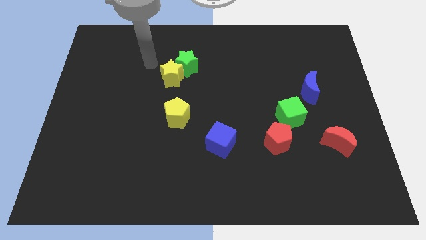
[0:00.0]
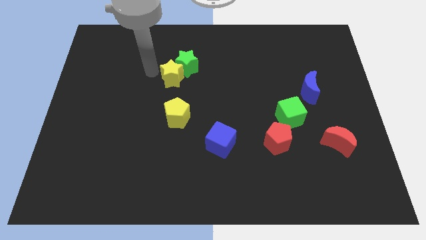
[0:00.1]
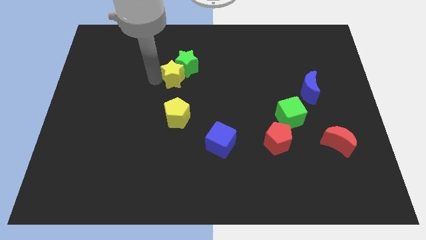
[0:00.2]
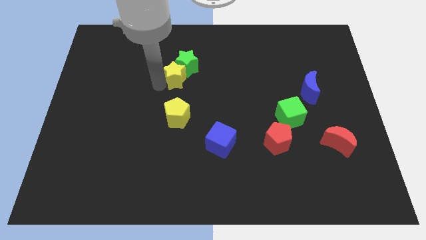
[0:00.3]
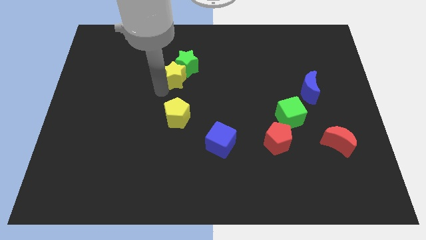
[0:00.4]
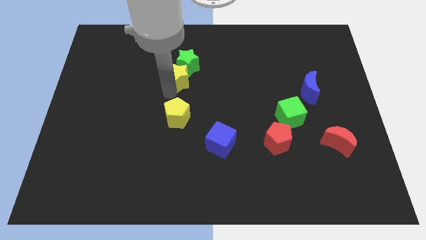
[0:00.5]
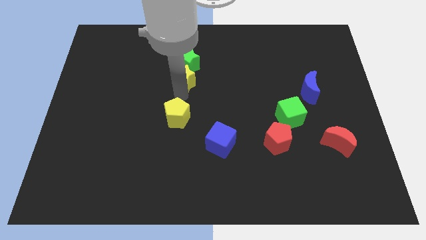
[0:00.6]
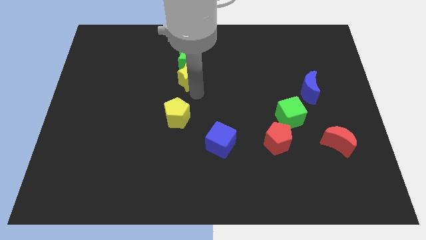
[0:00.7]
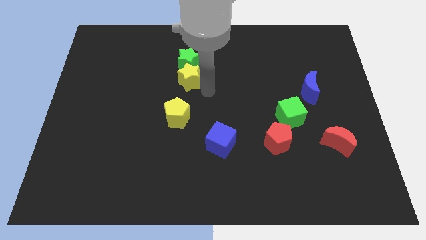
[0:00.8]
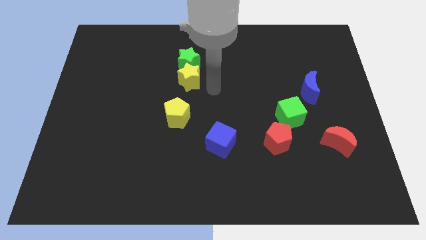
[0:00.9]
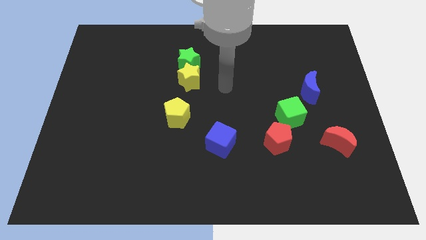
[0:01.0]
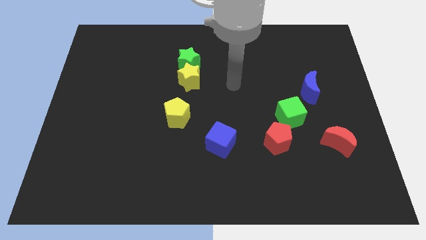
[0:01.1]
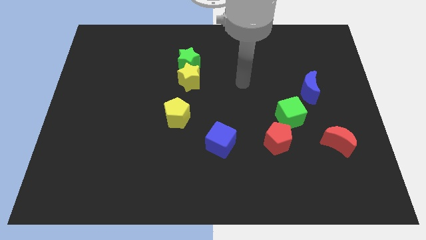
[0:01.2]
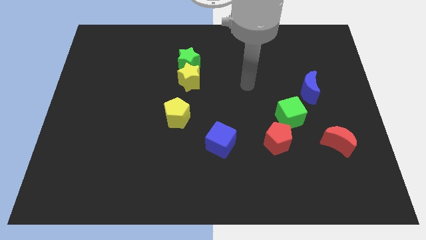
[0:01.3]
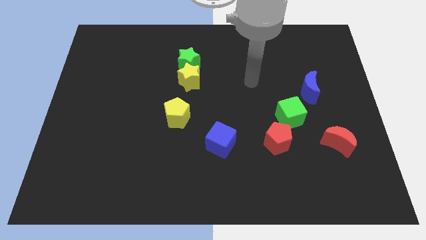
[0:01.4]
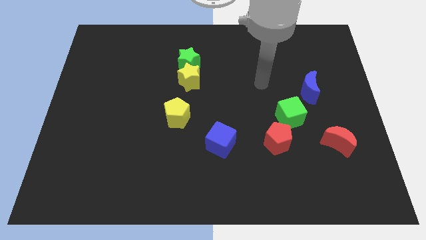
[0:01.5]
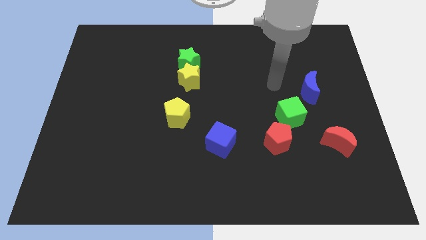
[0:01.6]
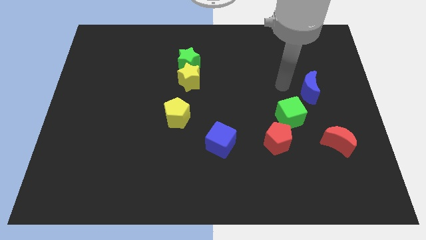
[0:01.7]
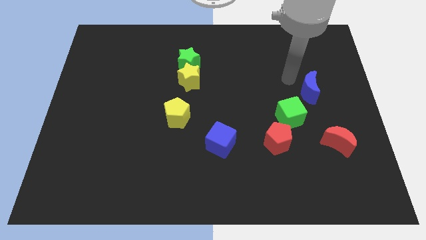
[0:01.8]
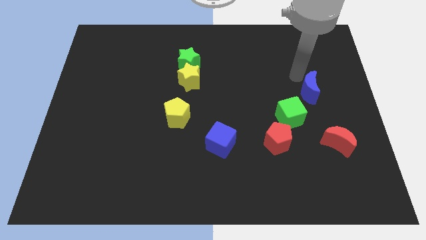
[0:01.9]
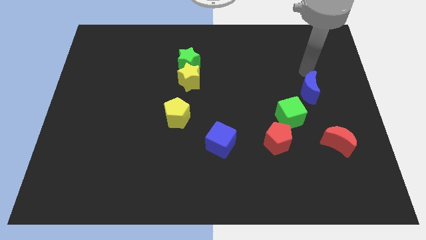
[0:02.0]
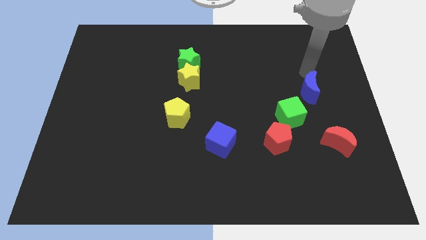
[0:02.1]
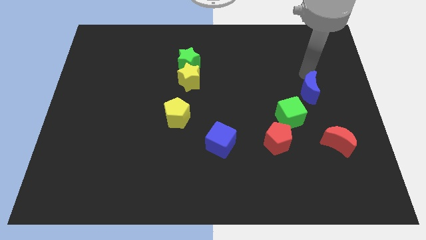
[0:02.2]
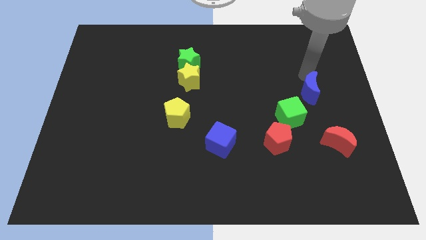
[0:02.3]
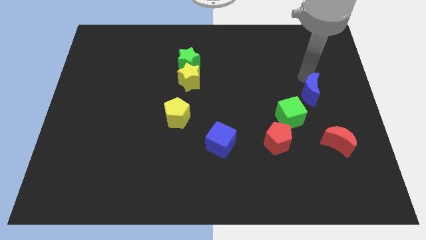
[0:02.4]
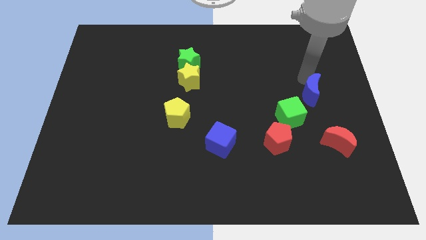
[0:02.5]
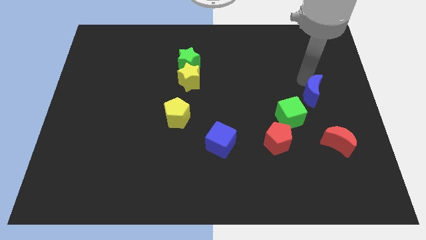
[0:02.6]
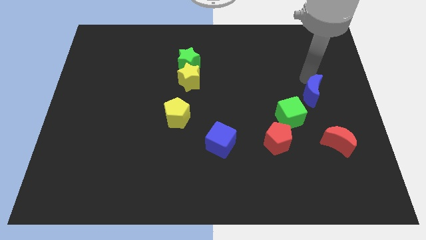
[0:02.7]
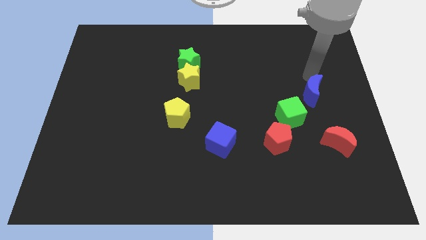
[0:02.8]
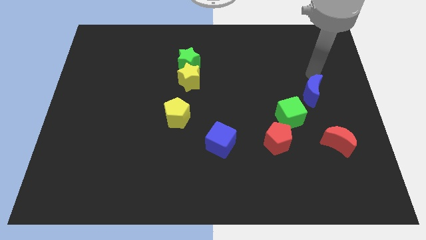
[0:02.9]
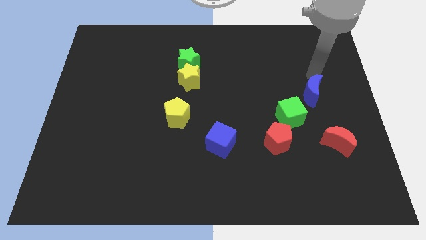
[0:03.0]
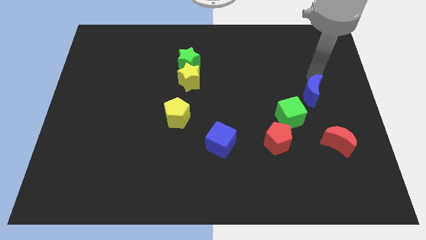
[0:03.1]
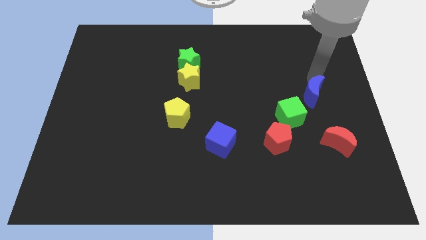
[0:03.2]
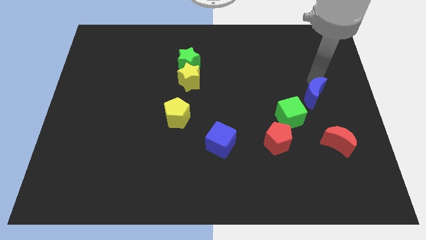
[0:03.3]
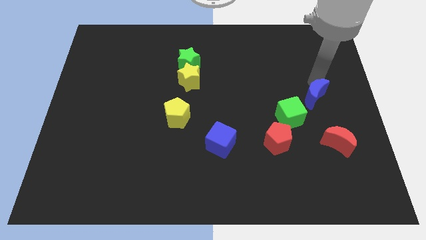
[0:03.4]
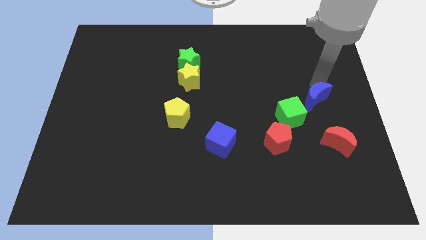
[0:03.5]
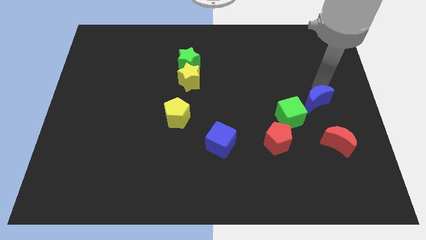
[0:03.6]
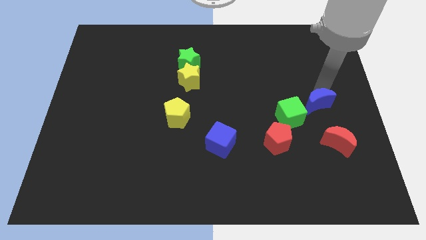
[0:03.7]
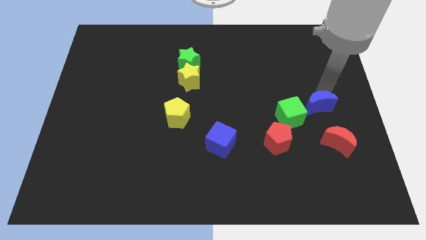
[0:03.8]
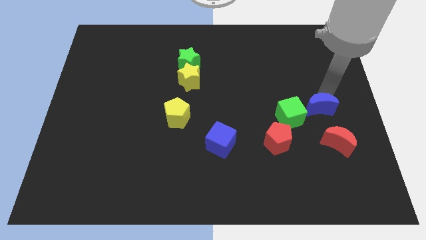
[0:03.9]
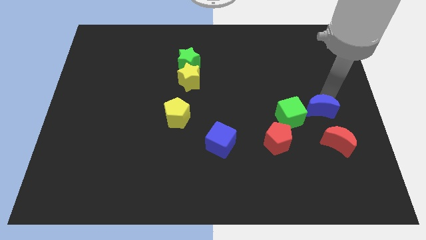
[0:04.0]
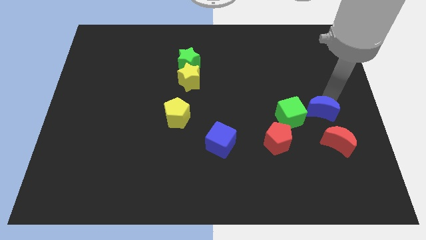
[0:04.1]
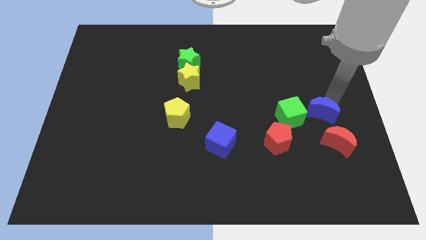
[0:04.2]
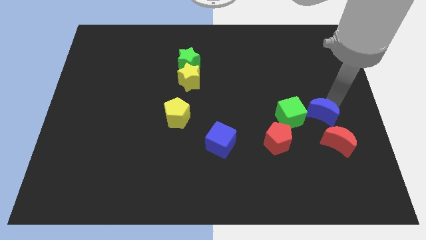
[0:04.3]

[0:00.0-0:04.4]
slightly move the blue moon down

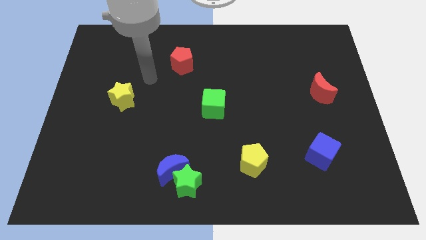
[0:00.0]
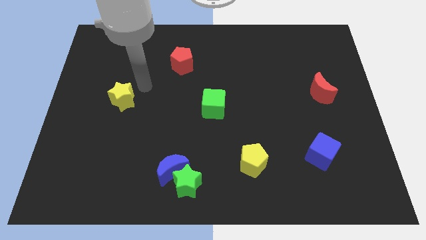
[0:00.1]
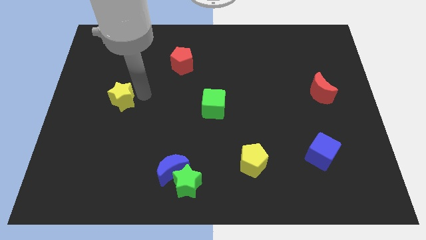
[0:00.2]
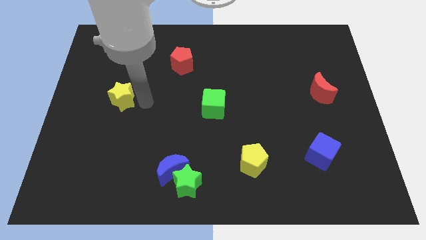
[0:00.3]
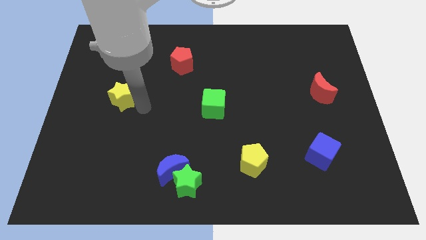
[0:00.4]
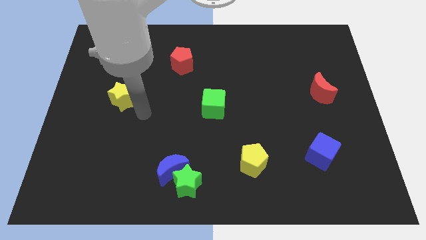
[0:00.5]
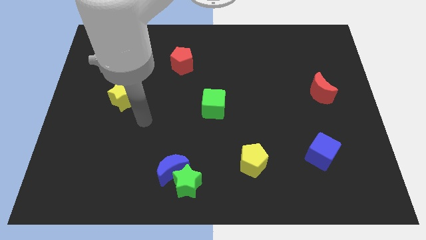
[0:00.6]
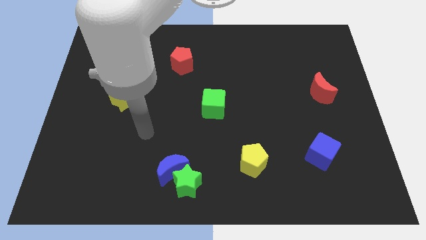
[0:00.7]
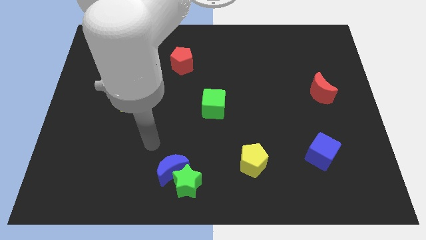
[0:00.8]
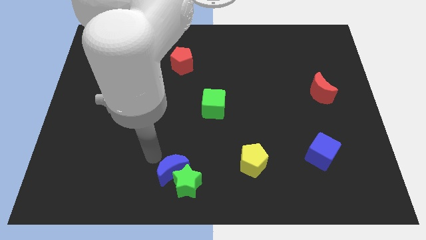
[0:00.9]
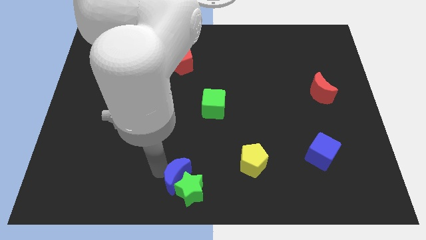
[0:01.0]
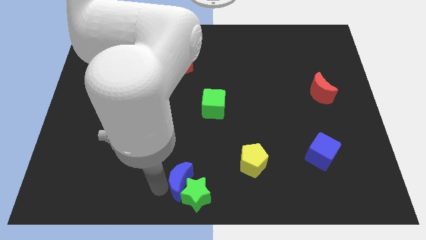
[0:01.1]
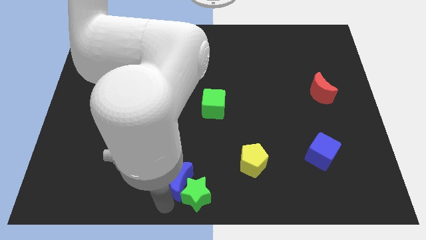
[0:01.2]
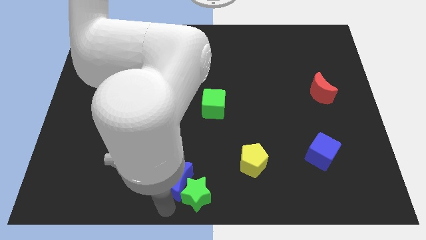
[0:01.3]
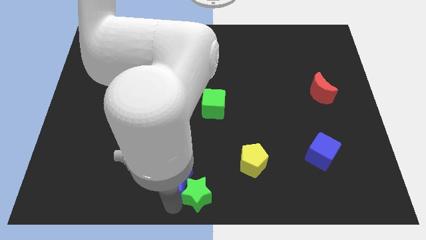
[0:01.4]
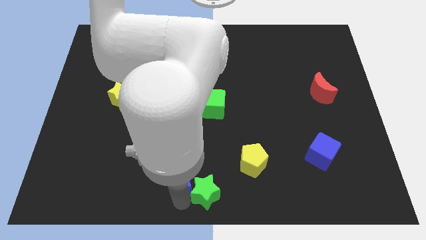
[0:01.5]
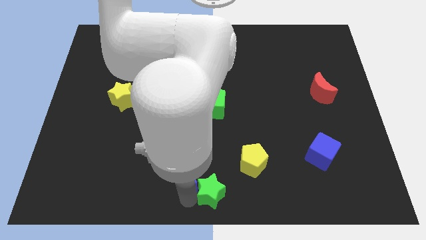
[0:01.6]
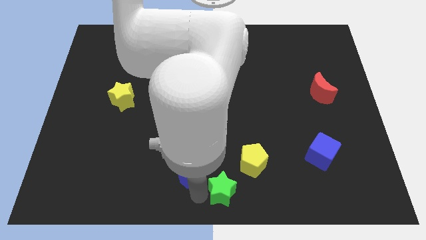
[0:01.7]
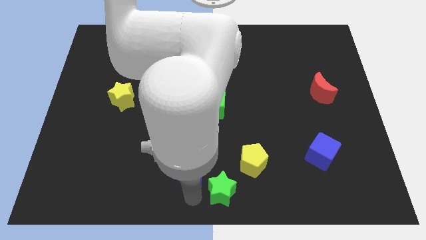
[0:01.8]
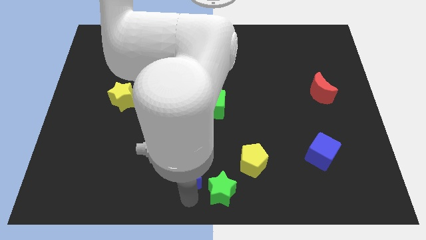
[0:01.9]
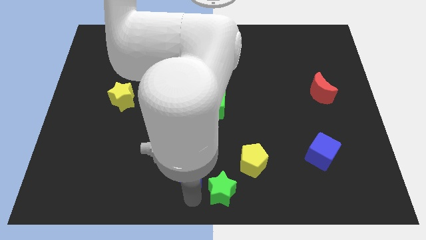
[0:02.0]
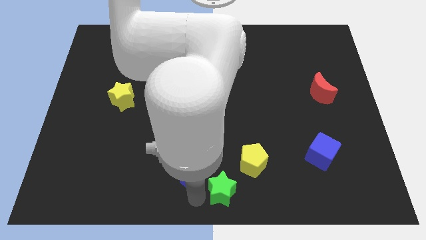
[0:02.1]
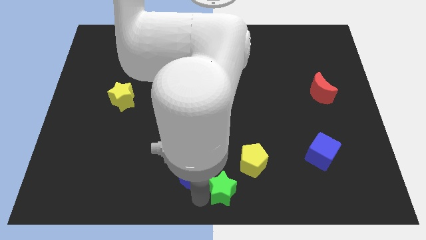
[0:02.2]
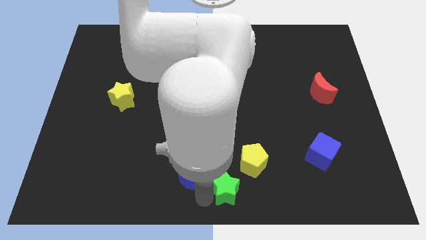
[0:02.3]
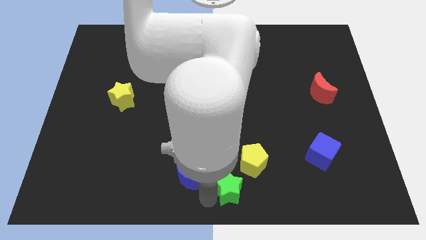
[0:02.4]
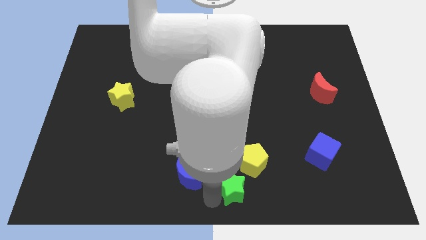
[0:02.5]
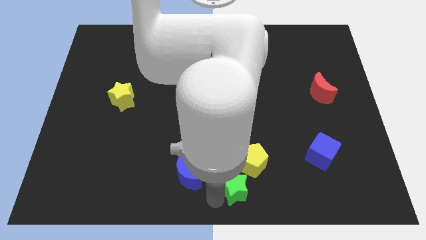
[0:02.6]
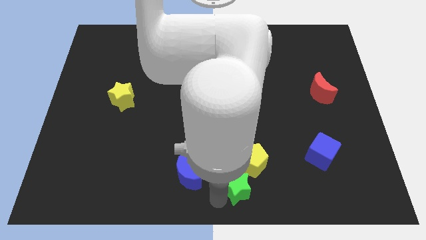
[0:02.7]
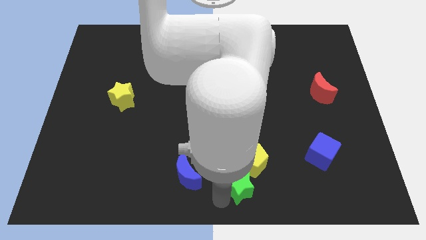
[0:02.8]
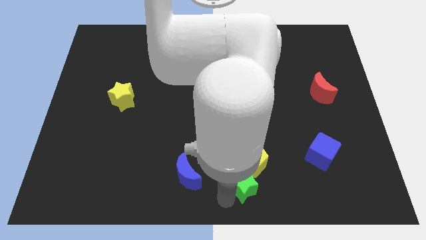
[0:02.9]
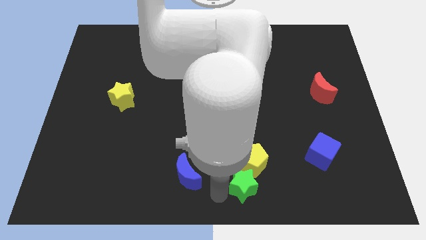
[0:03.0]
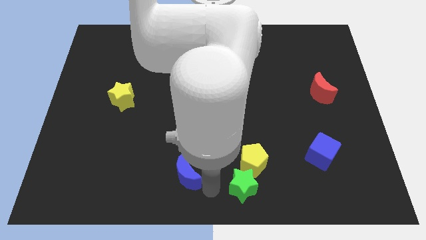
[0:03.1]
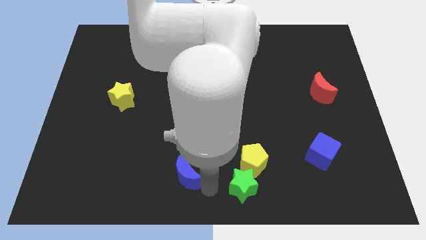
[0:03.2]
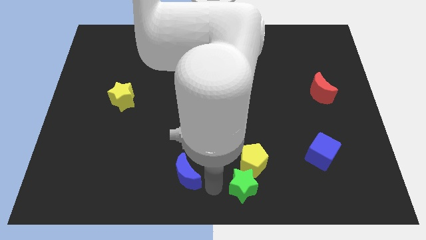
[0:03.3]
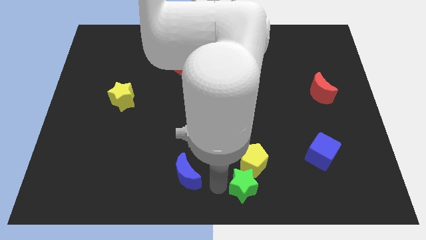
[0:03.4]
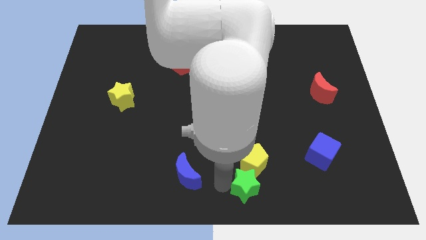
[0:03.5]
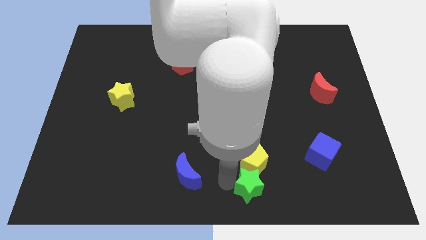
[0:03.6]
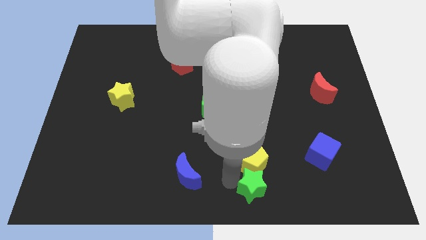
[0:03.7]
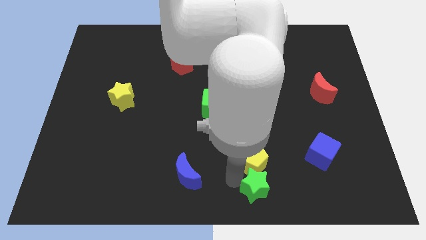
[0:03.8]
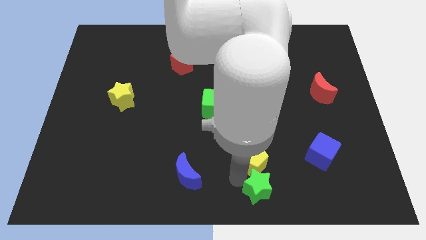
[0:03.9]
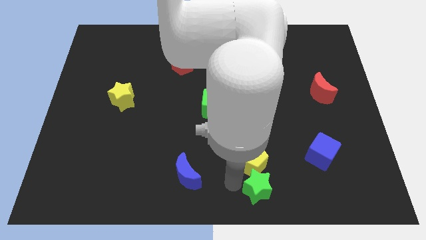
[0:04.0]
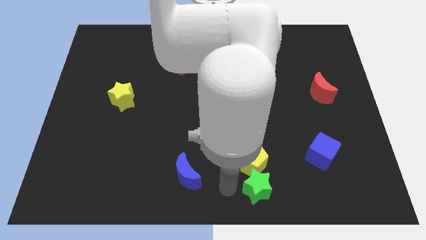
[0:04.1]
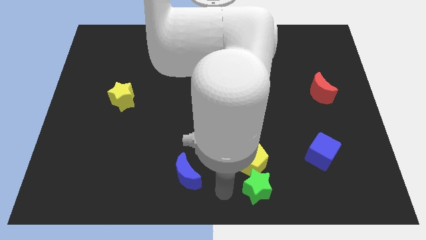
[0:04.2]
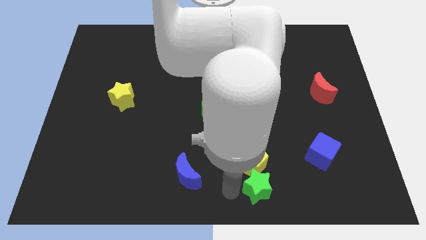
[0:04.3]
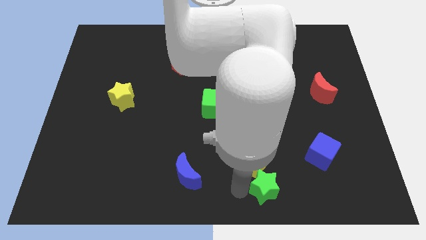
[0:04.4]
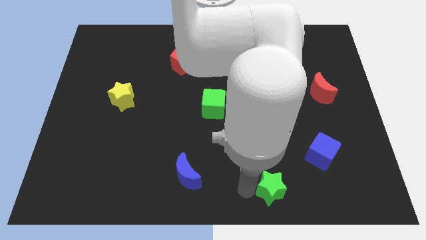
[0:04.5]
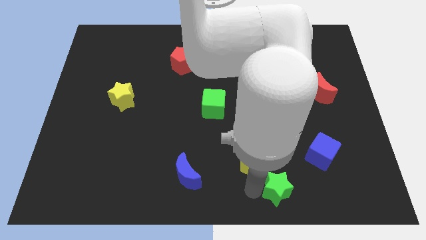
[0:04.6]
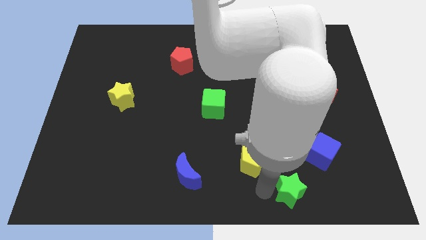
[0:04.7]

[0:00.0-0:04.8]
move the green star right
